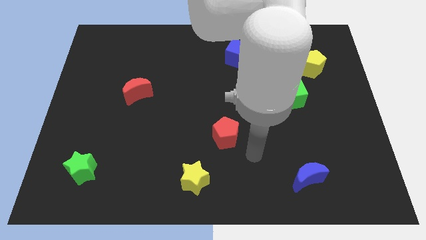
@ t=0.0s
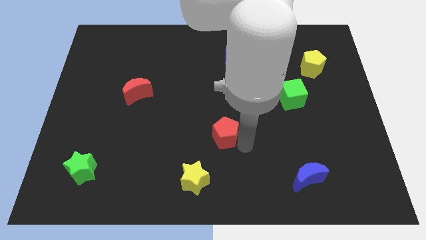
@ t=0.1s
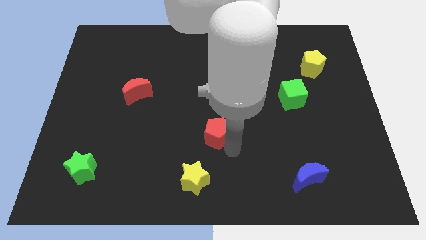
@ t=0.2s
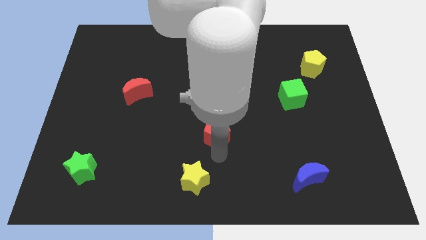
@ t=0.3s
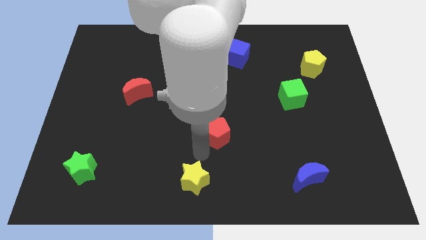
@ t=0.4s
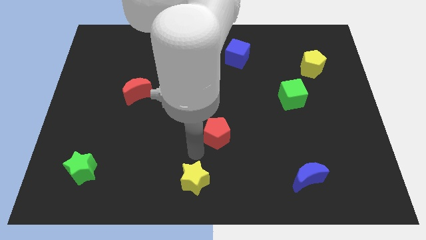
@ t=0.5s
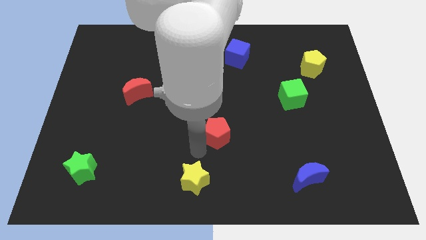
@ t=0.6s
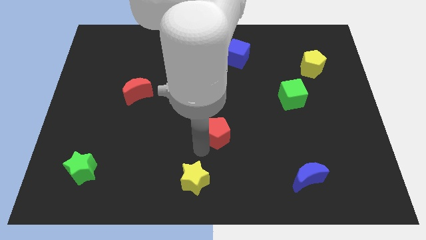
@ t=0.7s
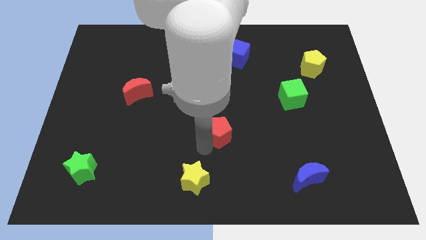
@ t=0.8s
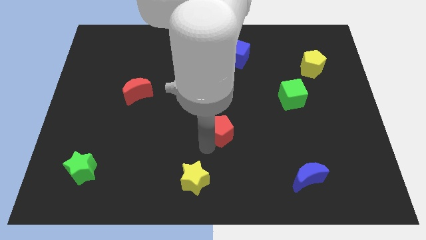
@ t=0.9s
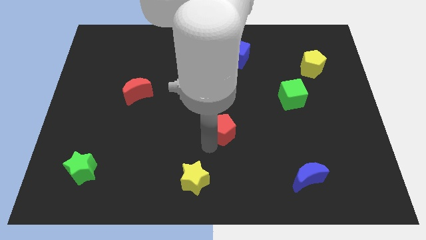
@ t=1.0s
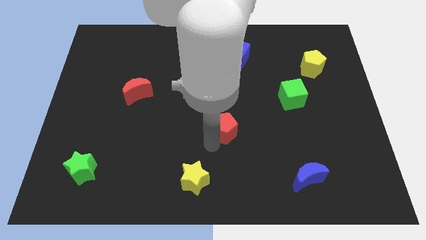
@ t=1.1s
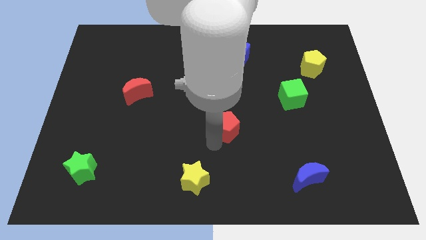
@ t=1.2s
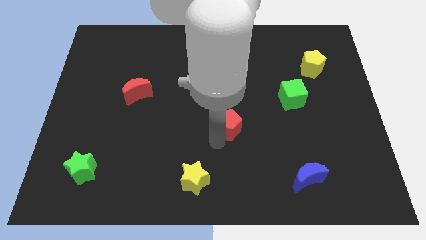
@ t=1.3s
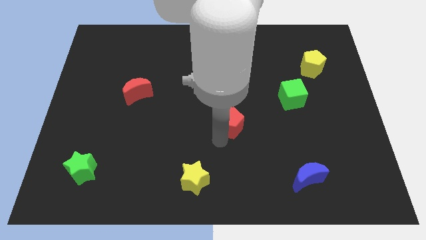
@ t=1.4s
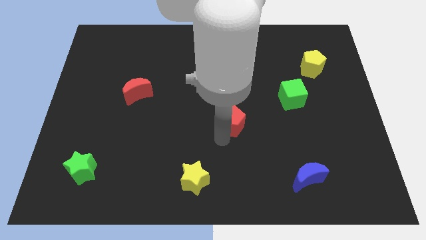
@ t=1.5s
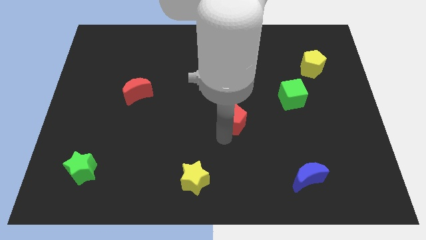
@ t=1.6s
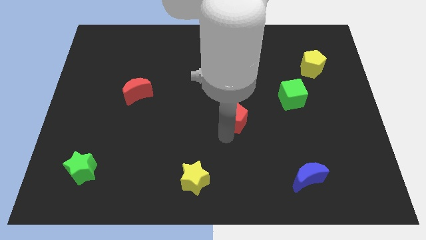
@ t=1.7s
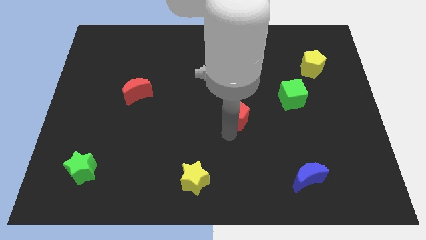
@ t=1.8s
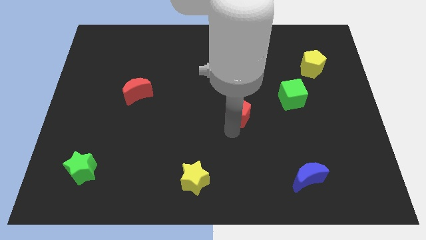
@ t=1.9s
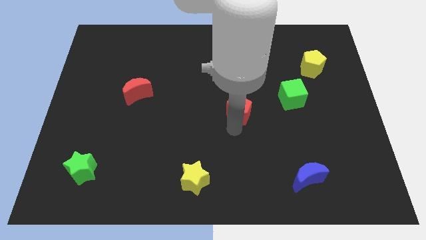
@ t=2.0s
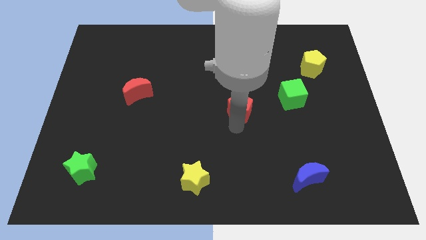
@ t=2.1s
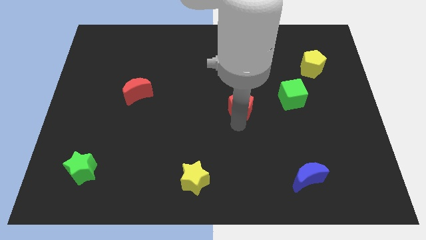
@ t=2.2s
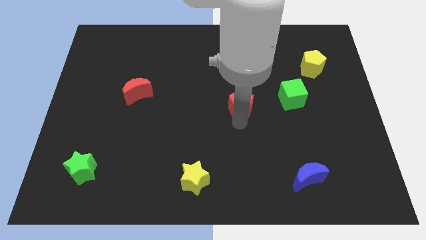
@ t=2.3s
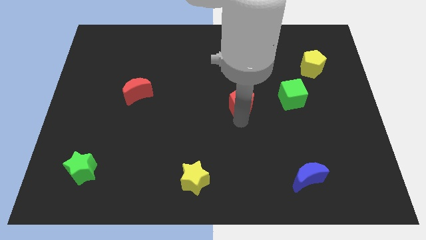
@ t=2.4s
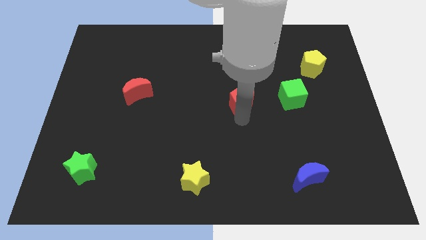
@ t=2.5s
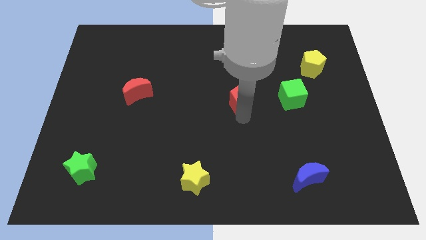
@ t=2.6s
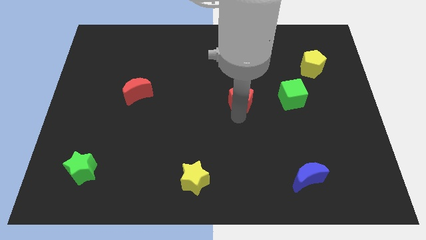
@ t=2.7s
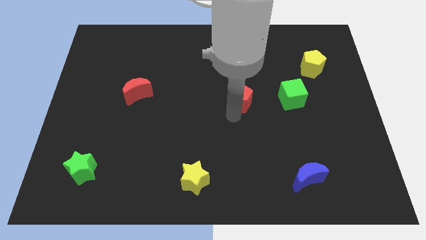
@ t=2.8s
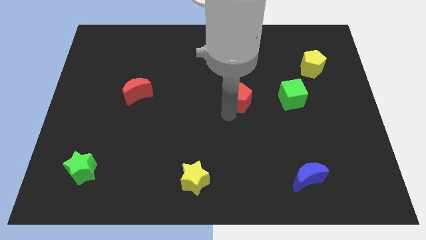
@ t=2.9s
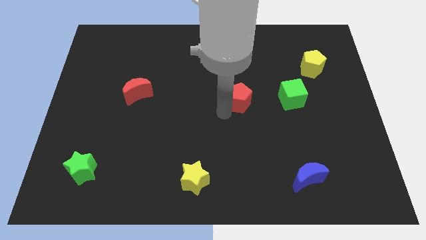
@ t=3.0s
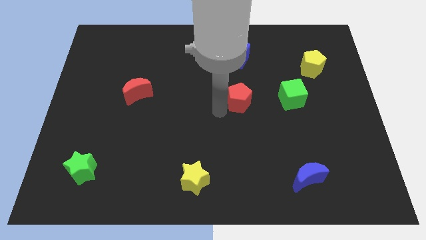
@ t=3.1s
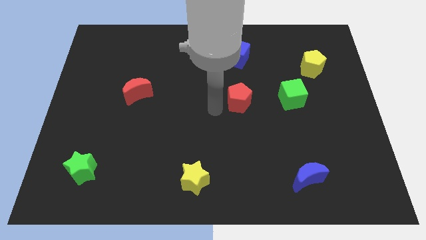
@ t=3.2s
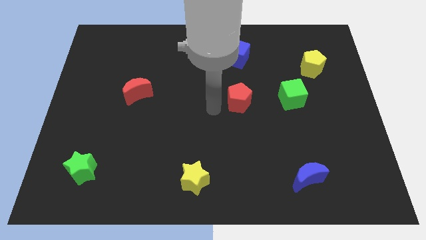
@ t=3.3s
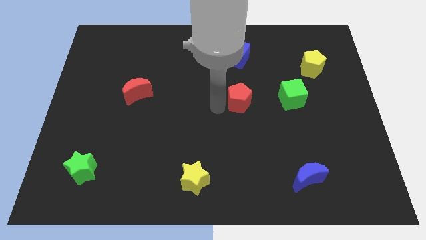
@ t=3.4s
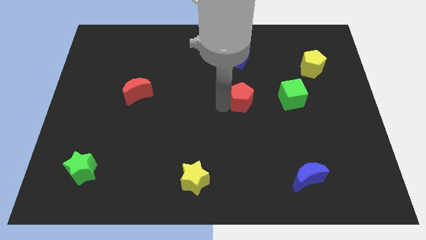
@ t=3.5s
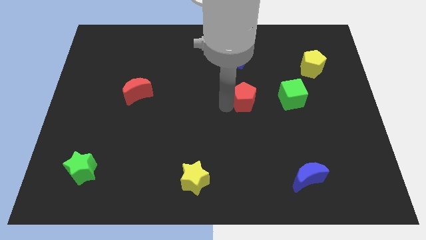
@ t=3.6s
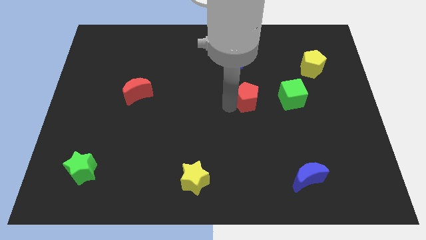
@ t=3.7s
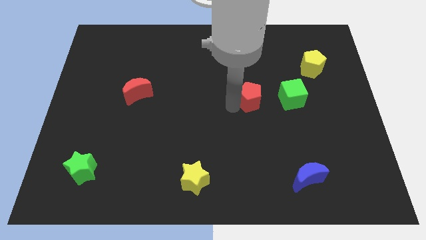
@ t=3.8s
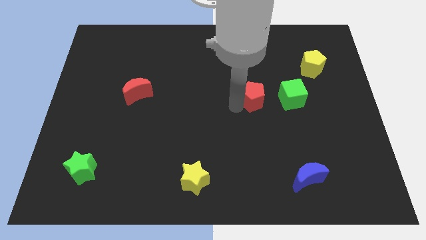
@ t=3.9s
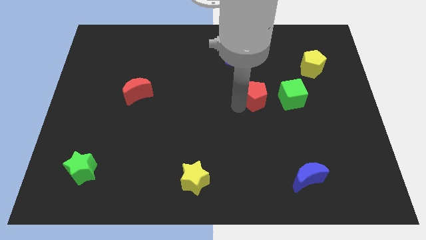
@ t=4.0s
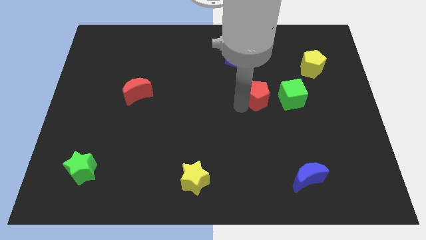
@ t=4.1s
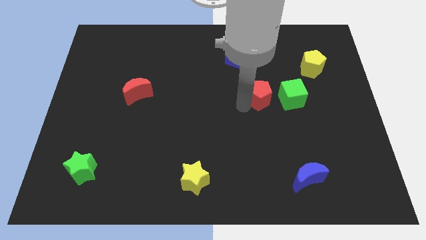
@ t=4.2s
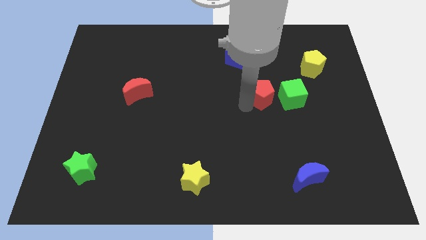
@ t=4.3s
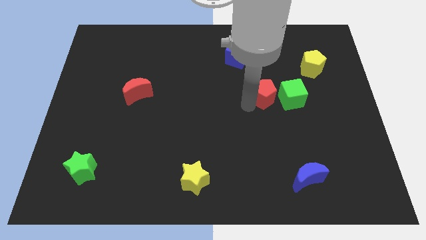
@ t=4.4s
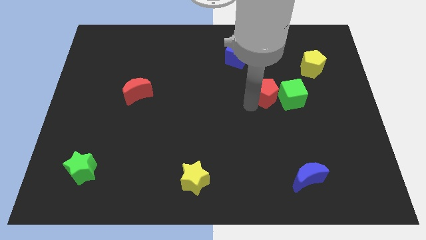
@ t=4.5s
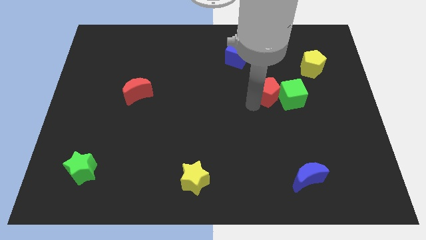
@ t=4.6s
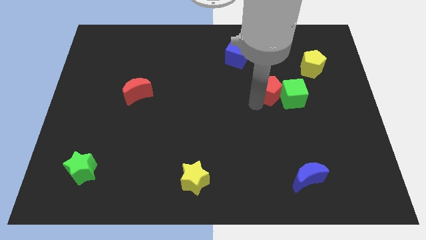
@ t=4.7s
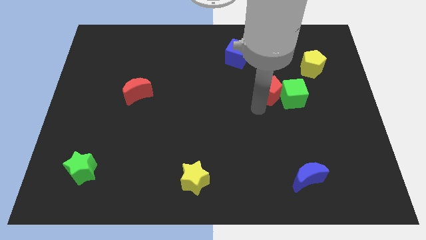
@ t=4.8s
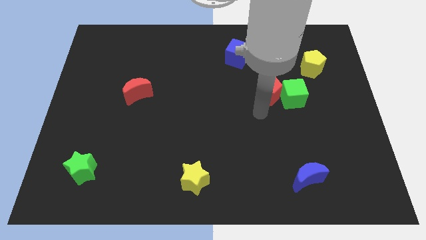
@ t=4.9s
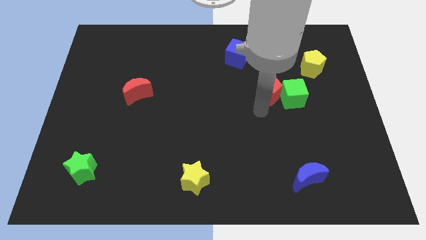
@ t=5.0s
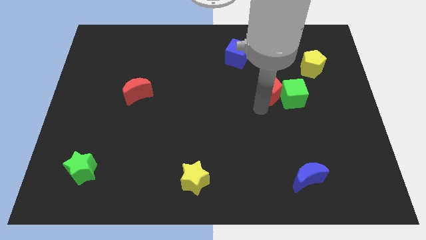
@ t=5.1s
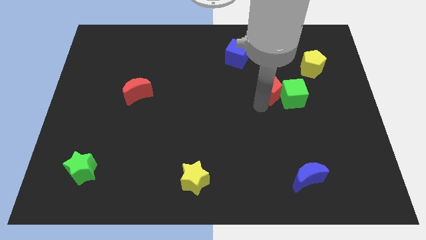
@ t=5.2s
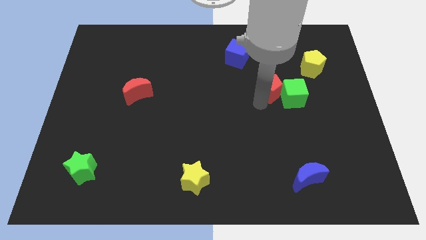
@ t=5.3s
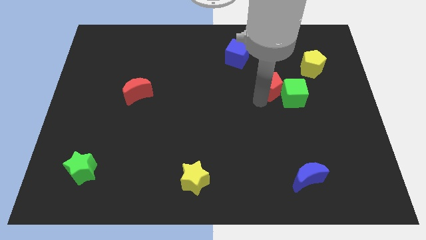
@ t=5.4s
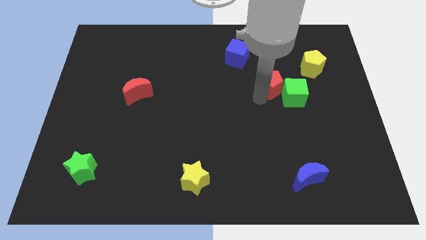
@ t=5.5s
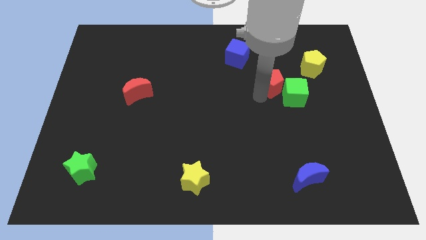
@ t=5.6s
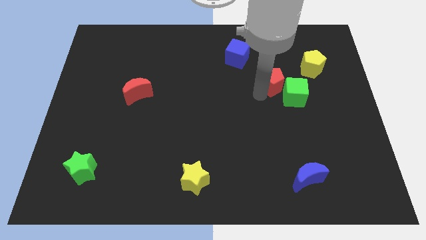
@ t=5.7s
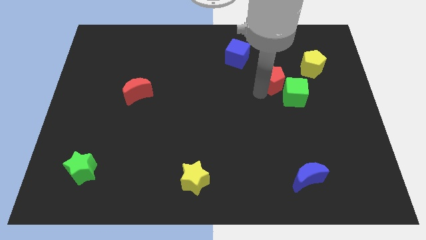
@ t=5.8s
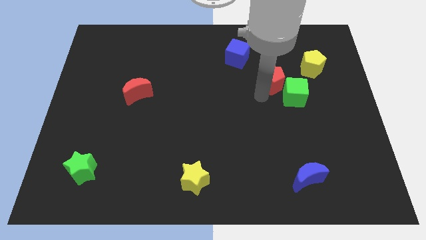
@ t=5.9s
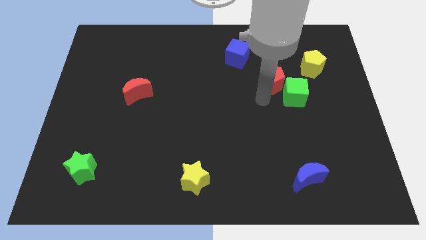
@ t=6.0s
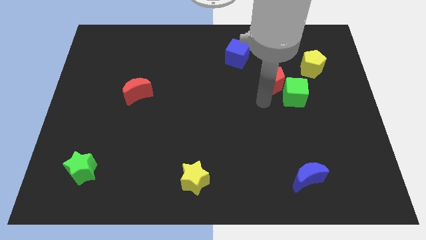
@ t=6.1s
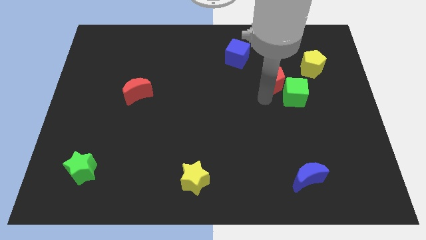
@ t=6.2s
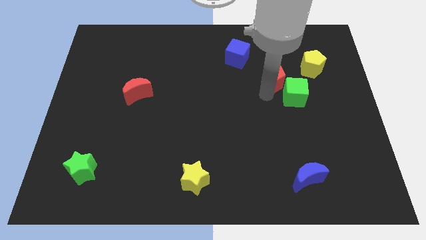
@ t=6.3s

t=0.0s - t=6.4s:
slide the red pentagon to the top of the green cube

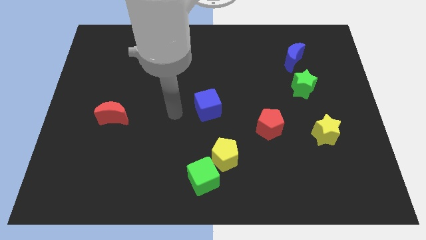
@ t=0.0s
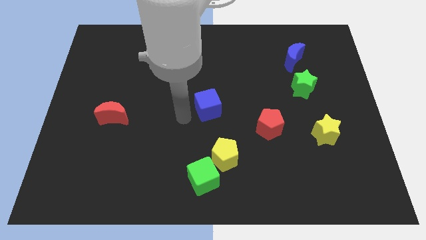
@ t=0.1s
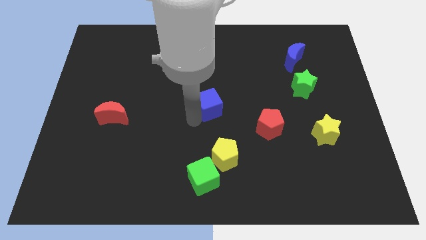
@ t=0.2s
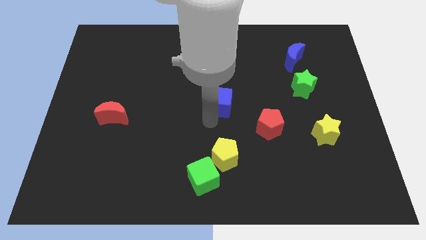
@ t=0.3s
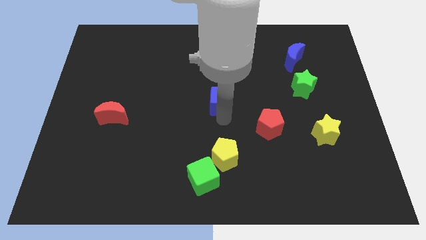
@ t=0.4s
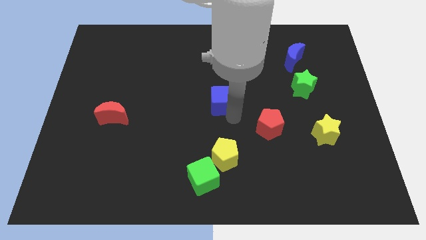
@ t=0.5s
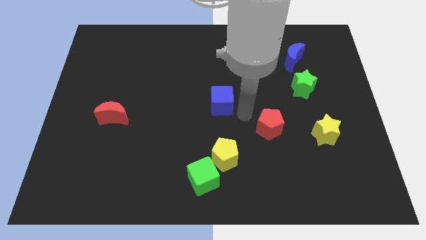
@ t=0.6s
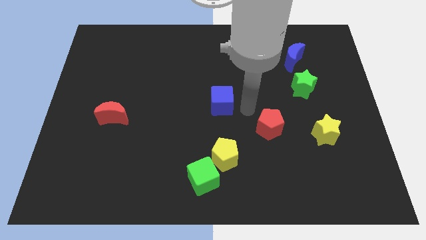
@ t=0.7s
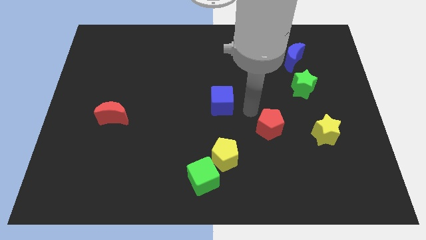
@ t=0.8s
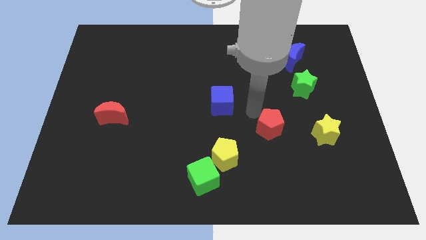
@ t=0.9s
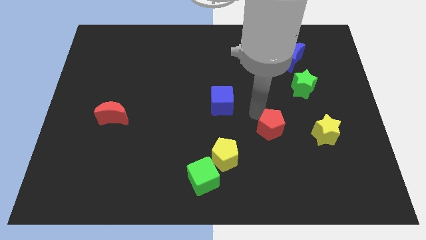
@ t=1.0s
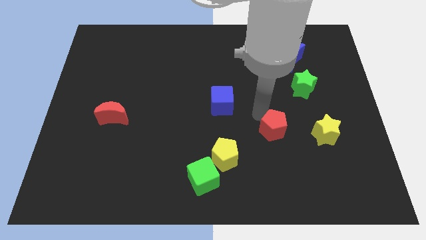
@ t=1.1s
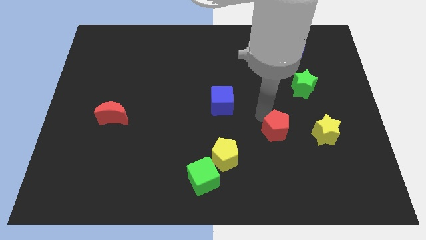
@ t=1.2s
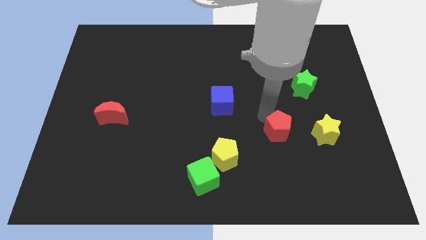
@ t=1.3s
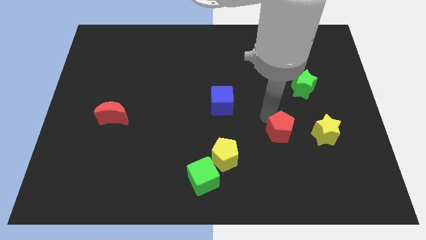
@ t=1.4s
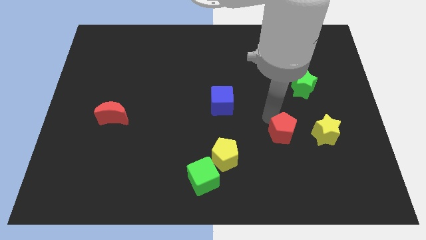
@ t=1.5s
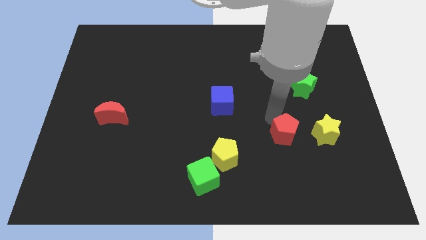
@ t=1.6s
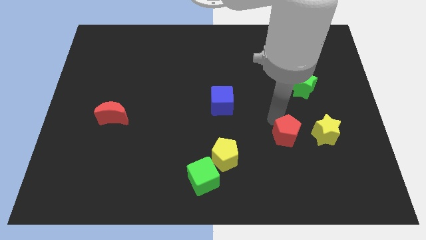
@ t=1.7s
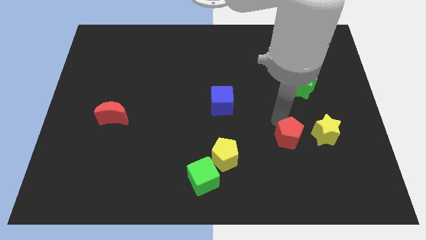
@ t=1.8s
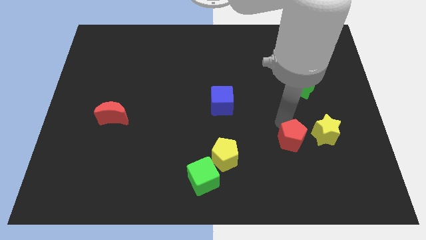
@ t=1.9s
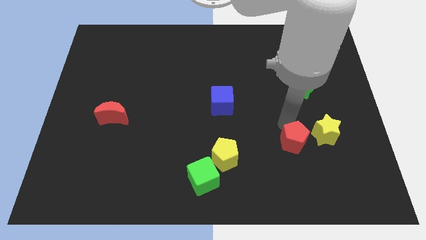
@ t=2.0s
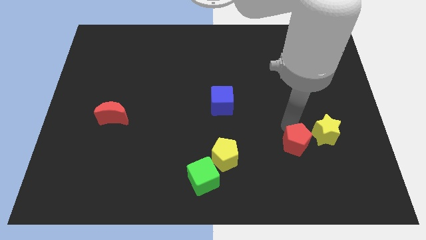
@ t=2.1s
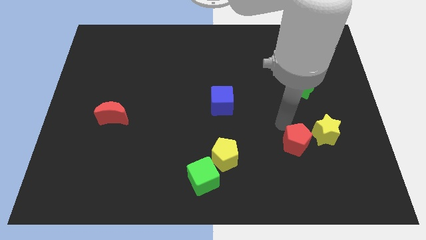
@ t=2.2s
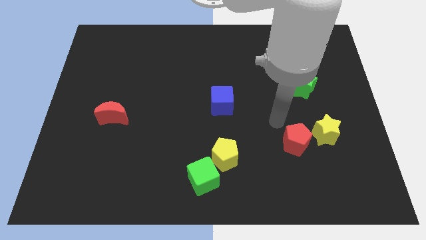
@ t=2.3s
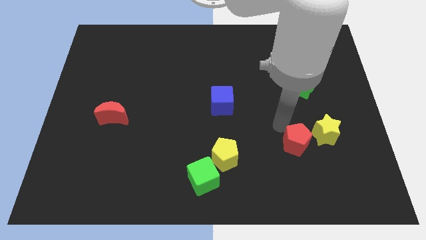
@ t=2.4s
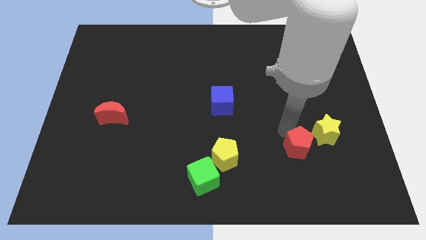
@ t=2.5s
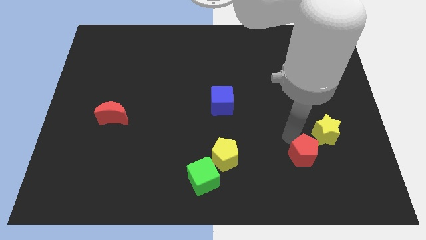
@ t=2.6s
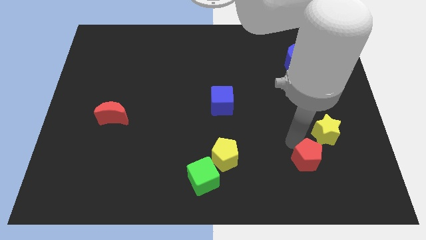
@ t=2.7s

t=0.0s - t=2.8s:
put the red pentagon to the bottom of the yellow star
